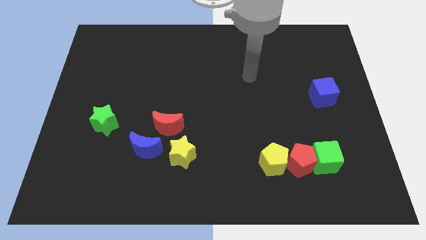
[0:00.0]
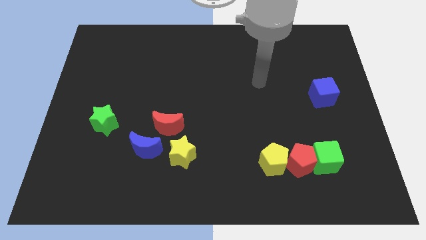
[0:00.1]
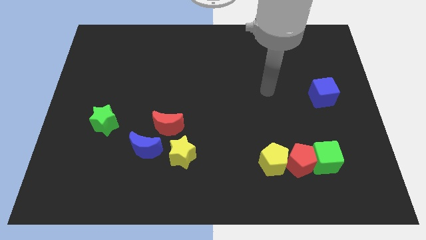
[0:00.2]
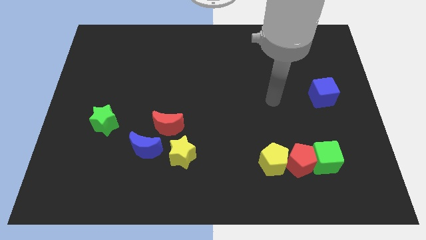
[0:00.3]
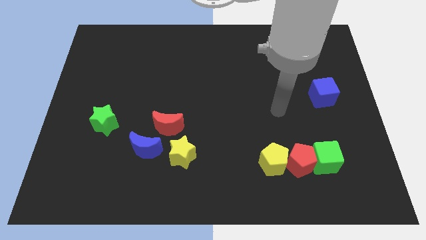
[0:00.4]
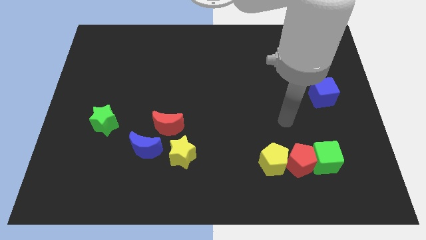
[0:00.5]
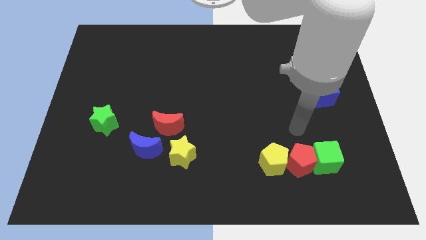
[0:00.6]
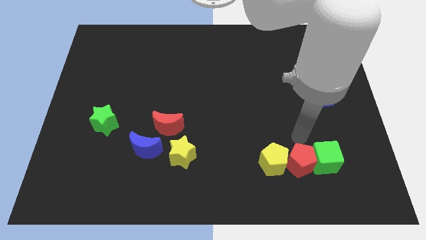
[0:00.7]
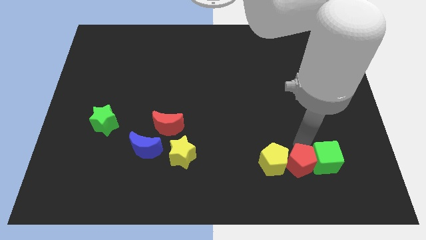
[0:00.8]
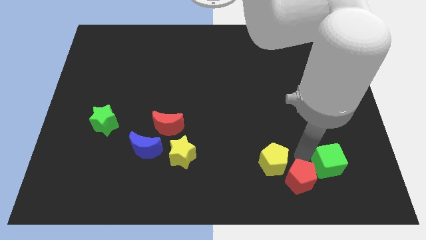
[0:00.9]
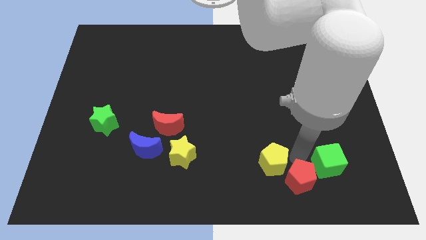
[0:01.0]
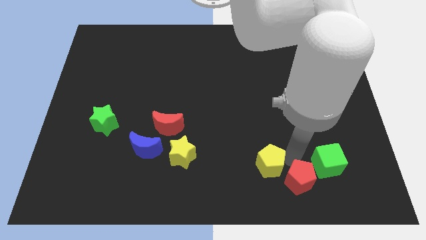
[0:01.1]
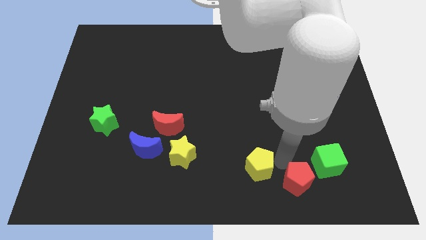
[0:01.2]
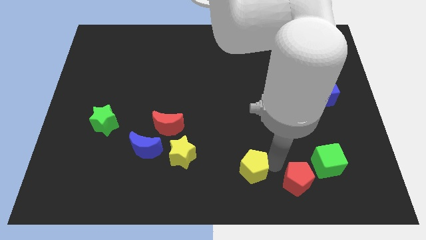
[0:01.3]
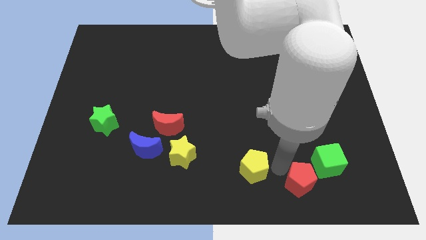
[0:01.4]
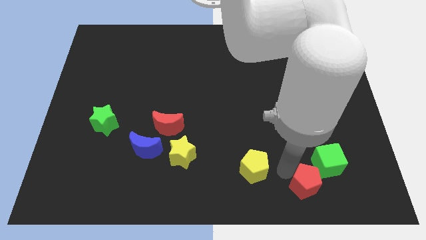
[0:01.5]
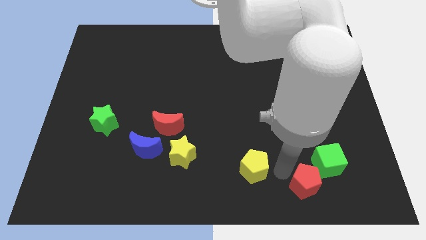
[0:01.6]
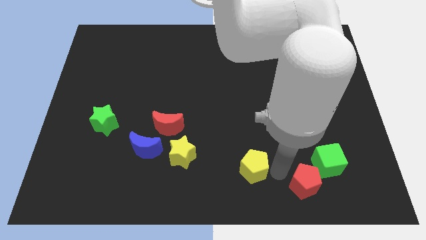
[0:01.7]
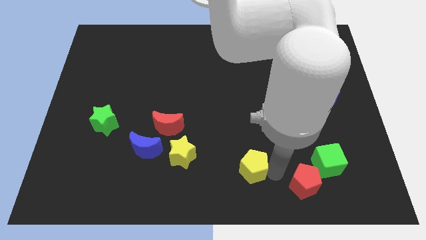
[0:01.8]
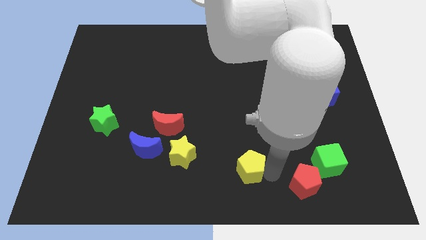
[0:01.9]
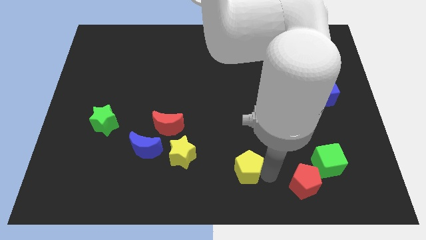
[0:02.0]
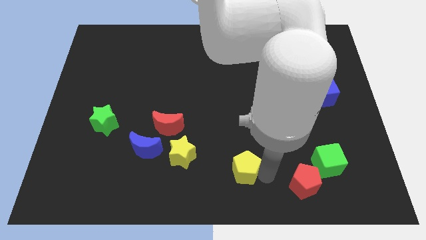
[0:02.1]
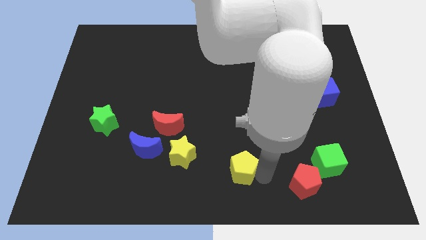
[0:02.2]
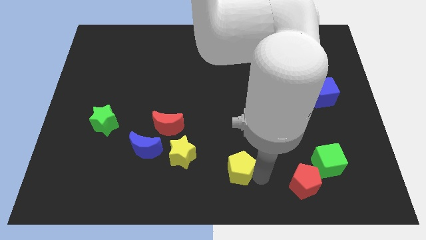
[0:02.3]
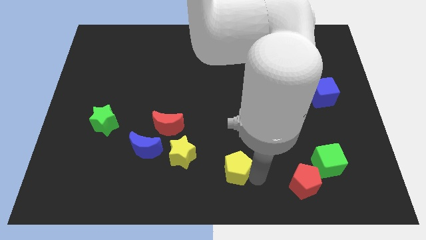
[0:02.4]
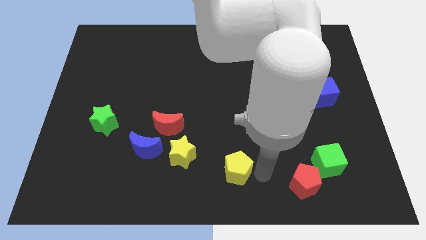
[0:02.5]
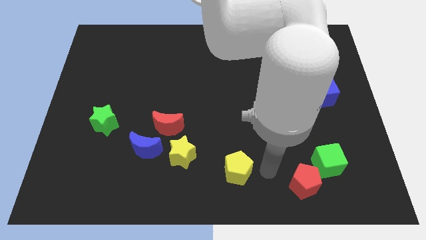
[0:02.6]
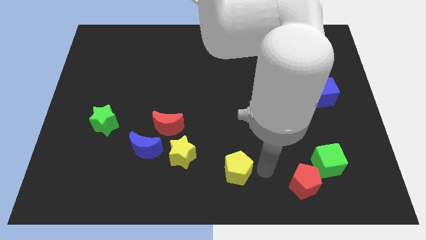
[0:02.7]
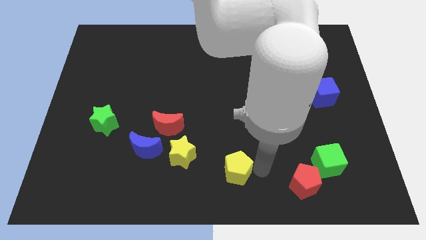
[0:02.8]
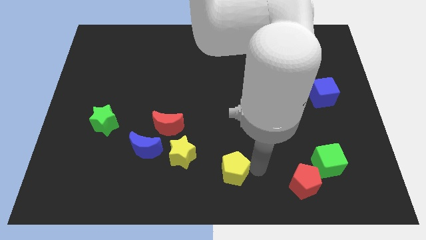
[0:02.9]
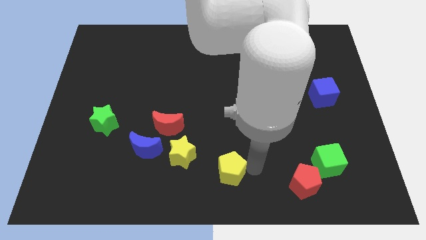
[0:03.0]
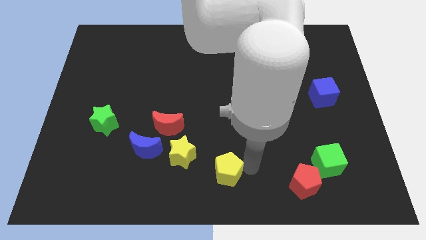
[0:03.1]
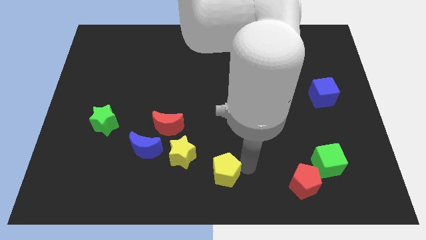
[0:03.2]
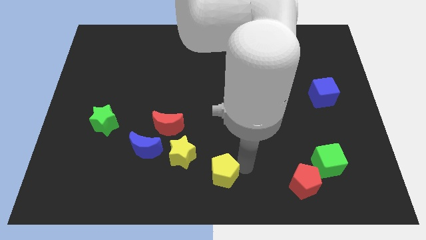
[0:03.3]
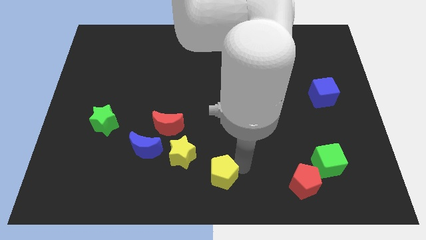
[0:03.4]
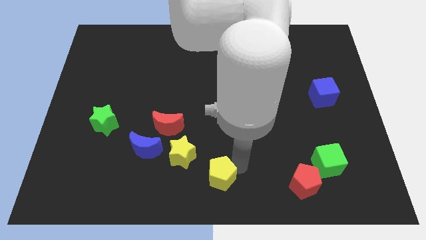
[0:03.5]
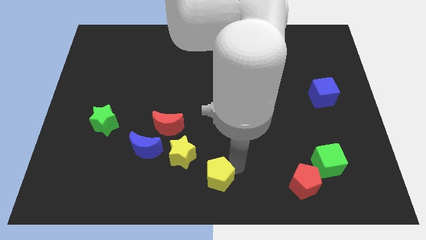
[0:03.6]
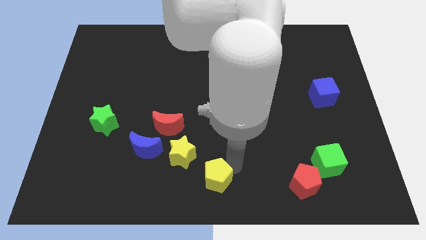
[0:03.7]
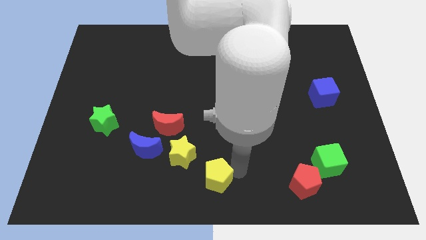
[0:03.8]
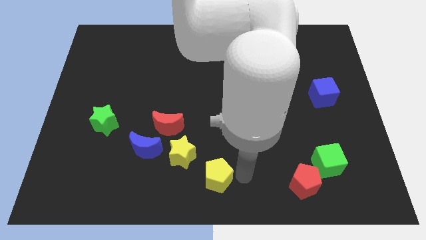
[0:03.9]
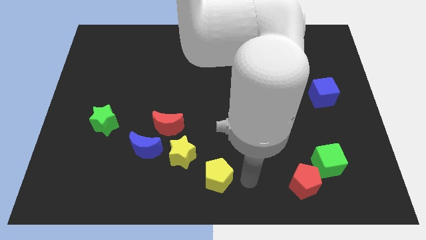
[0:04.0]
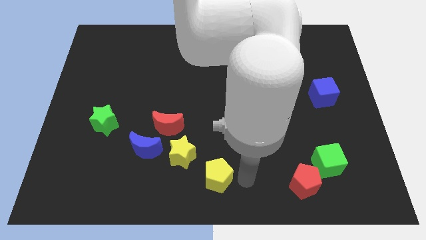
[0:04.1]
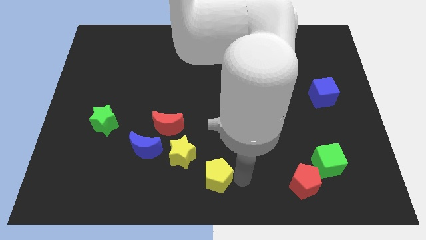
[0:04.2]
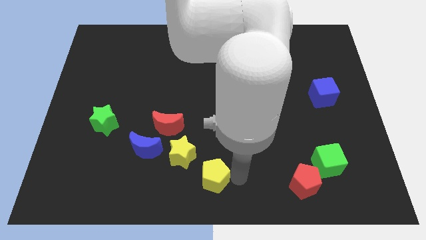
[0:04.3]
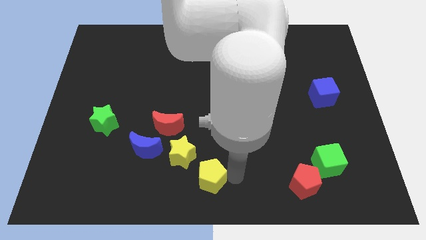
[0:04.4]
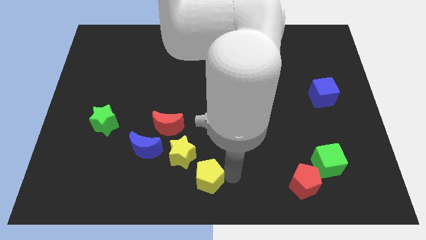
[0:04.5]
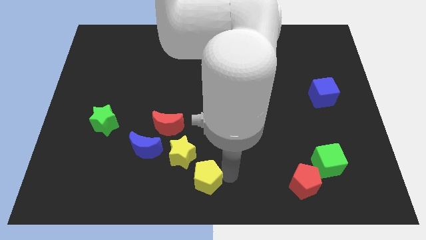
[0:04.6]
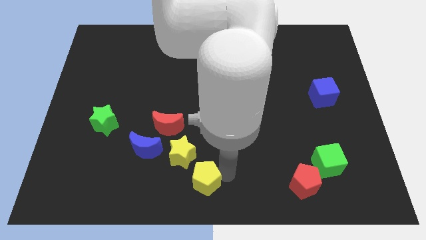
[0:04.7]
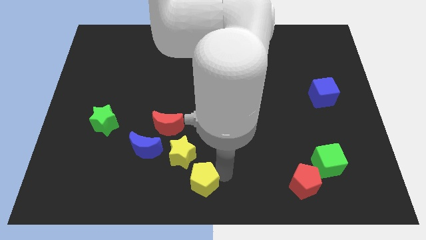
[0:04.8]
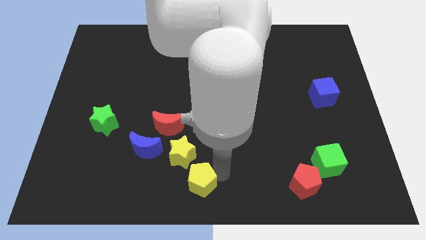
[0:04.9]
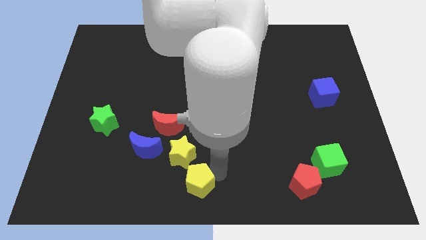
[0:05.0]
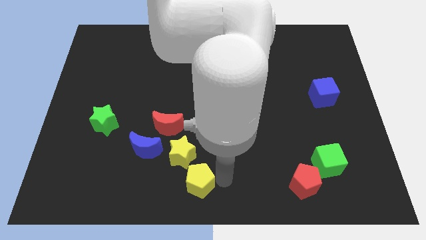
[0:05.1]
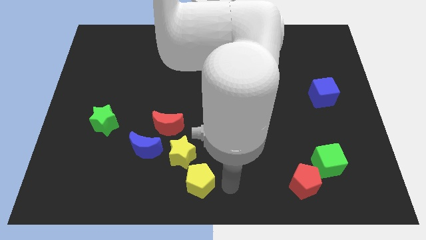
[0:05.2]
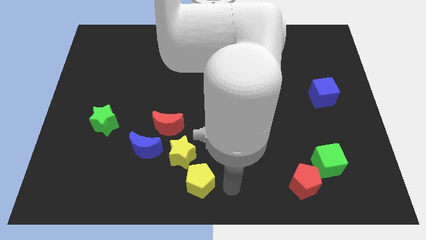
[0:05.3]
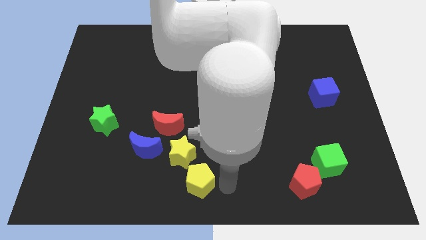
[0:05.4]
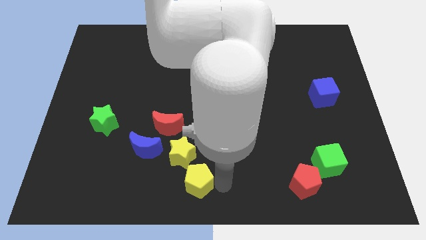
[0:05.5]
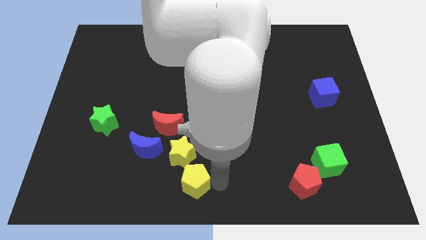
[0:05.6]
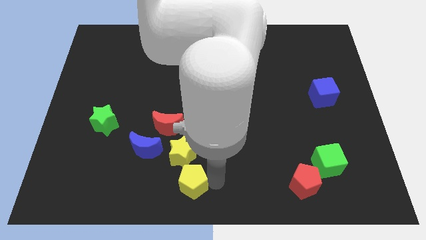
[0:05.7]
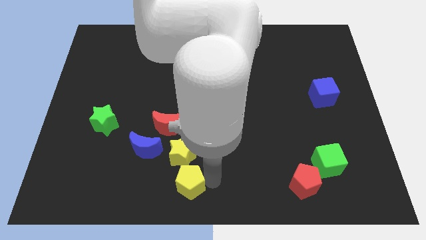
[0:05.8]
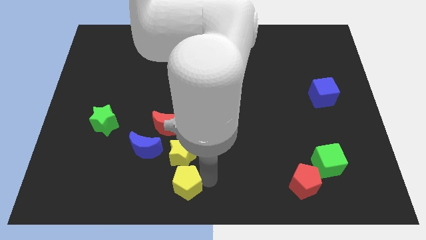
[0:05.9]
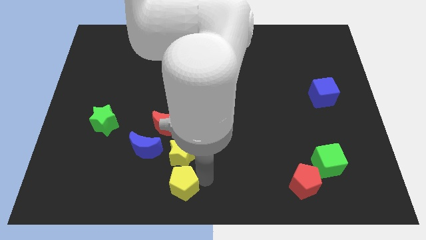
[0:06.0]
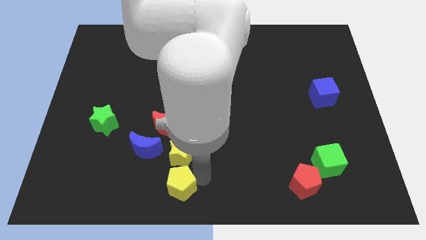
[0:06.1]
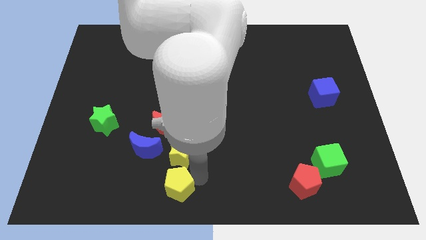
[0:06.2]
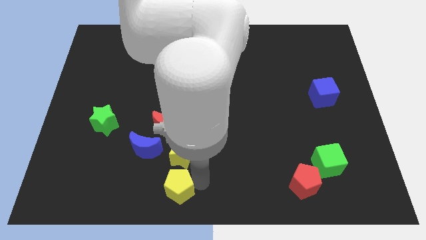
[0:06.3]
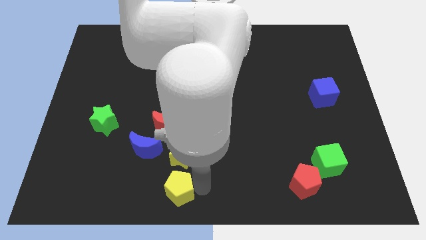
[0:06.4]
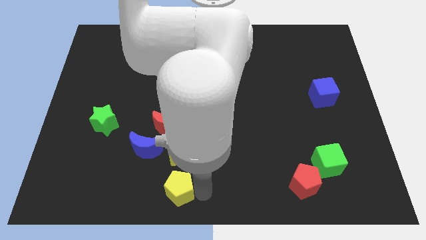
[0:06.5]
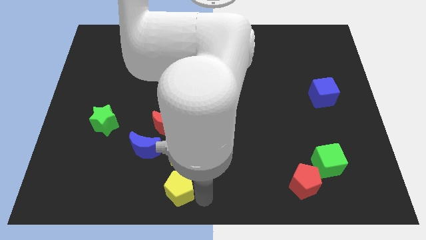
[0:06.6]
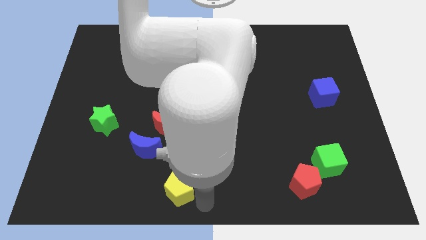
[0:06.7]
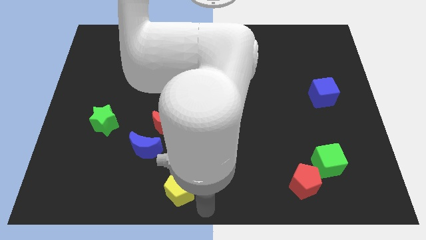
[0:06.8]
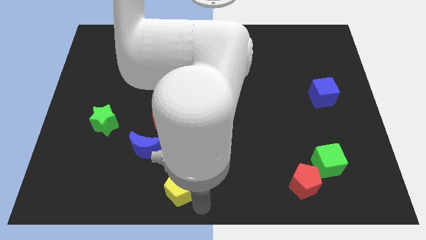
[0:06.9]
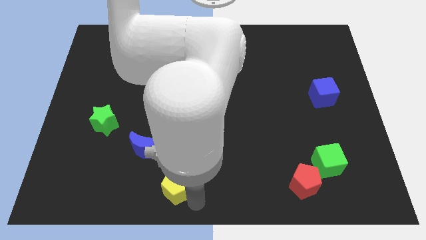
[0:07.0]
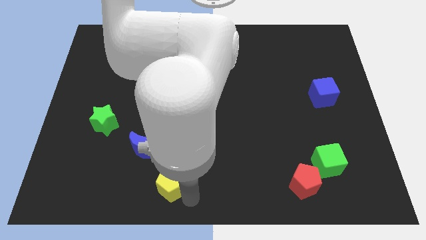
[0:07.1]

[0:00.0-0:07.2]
push the yellow pentagon left

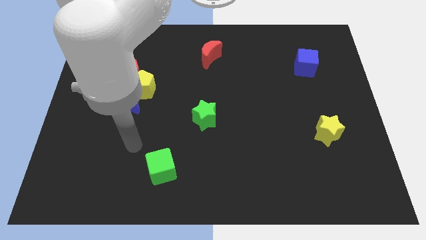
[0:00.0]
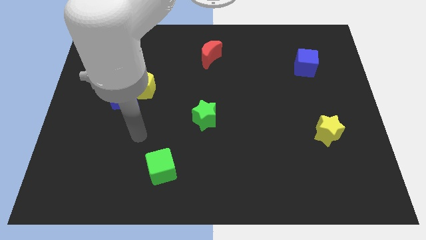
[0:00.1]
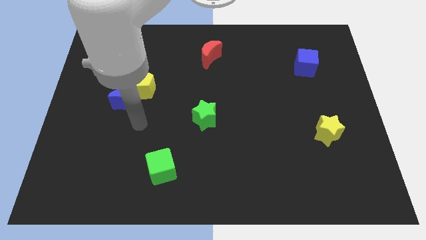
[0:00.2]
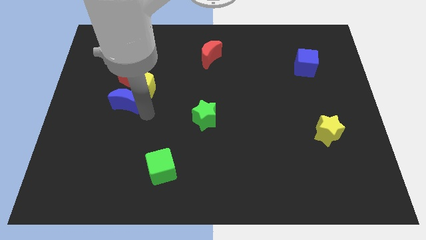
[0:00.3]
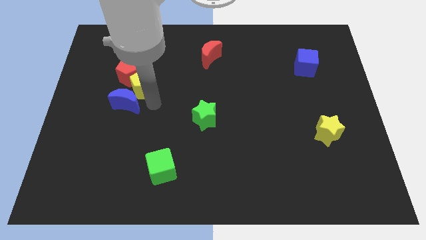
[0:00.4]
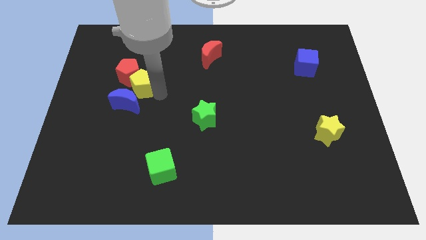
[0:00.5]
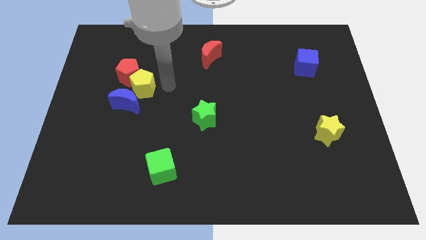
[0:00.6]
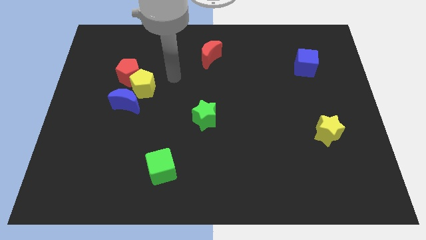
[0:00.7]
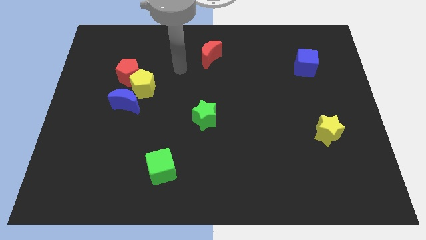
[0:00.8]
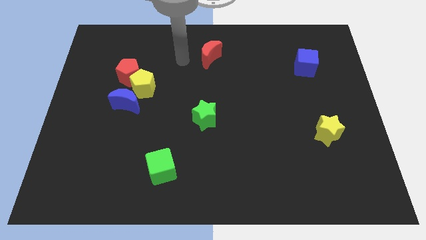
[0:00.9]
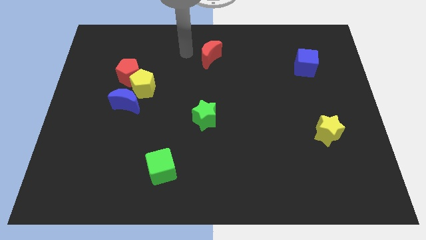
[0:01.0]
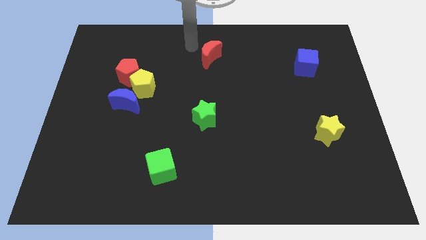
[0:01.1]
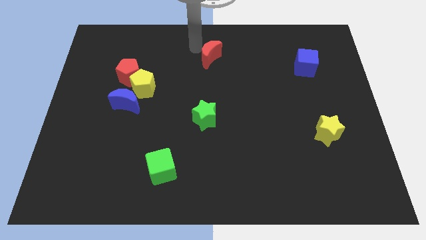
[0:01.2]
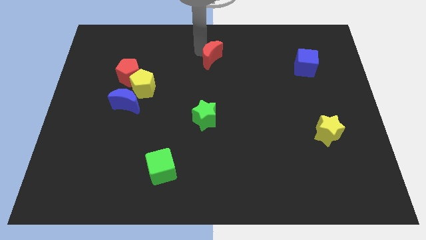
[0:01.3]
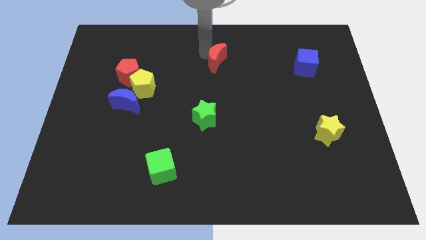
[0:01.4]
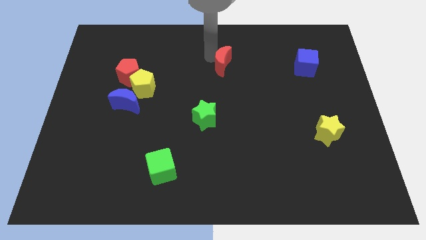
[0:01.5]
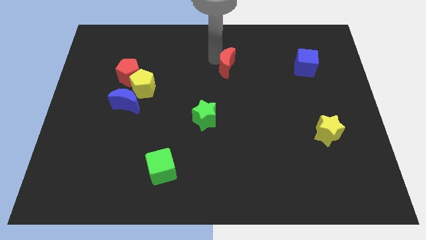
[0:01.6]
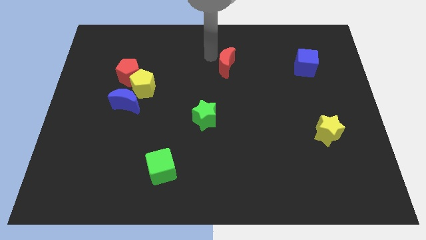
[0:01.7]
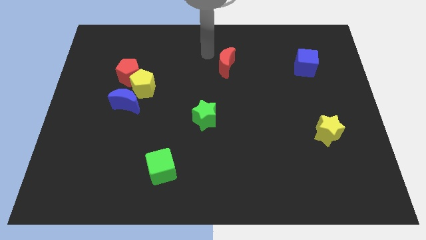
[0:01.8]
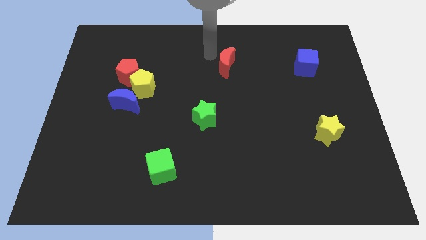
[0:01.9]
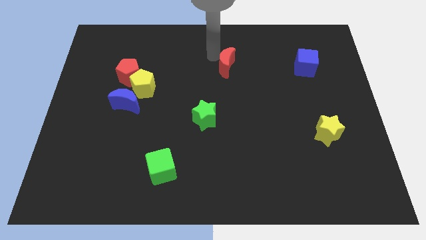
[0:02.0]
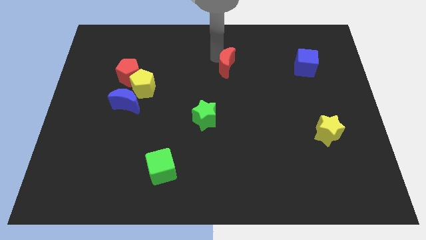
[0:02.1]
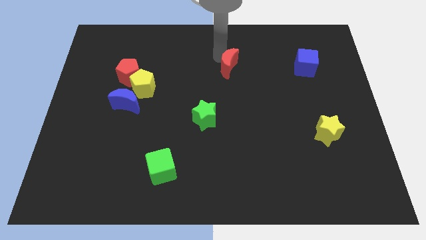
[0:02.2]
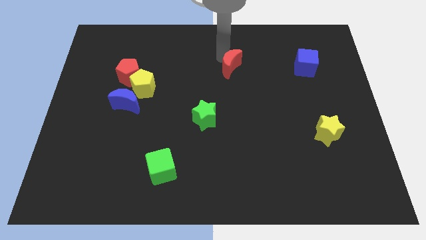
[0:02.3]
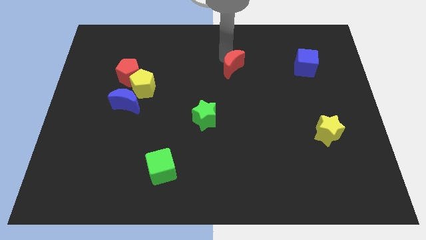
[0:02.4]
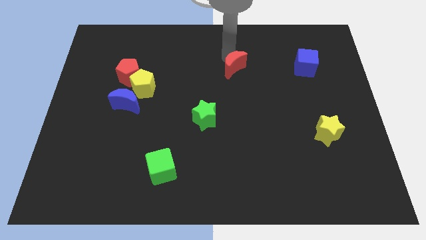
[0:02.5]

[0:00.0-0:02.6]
slightly push the red moon downwards and right diagonally
